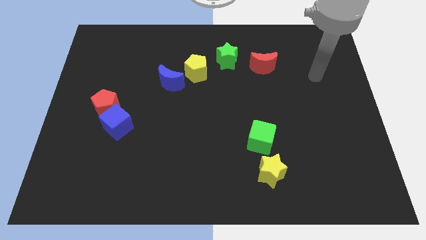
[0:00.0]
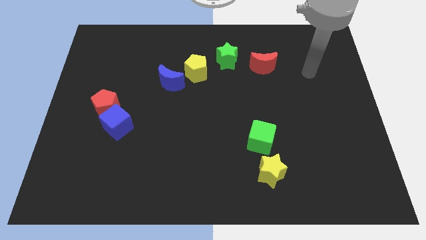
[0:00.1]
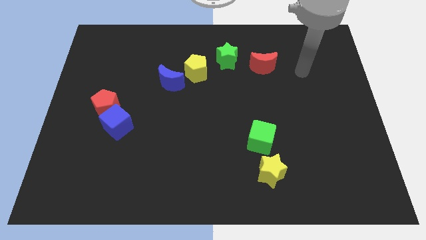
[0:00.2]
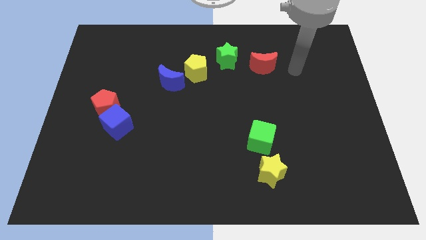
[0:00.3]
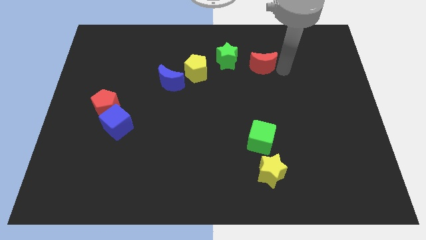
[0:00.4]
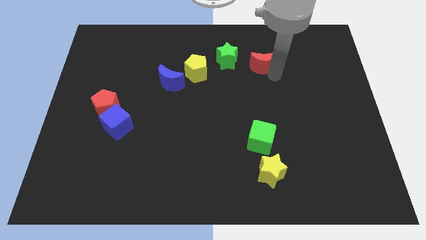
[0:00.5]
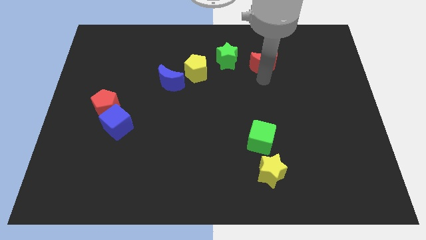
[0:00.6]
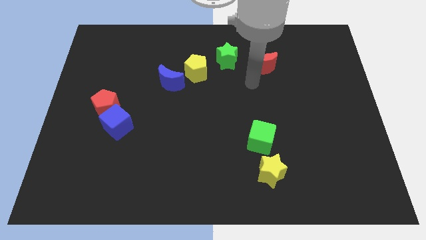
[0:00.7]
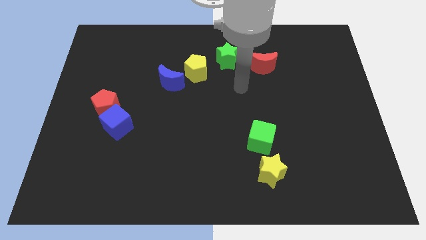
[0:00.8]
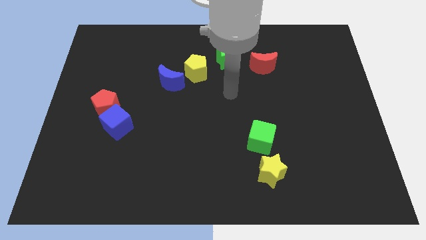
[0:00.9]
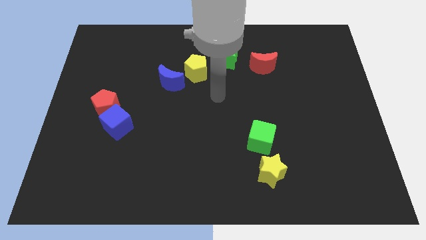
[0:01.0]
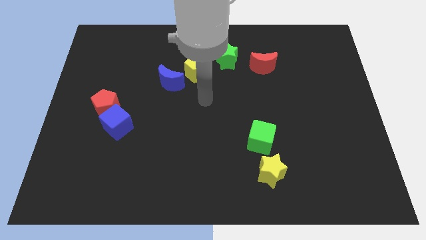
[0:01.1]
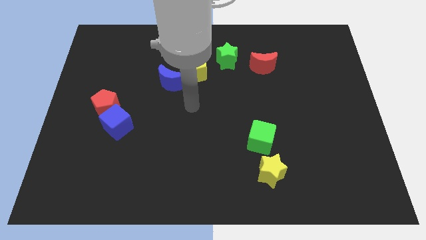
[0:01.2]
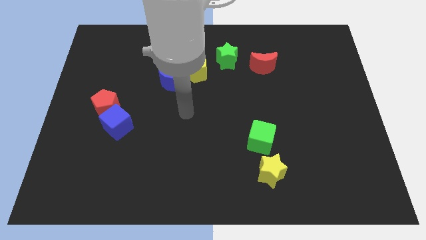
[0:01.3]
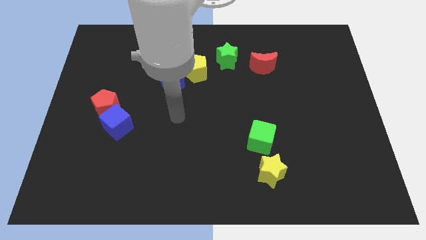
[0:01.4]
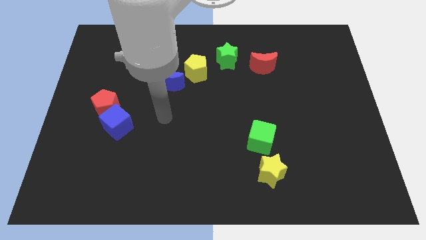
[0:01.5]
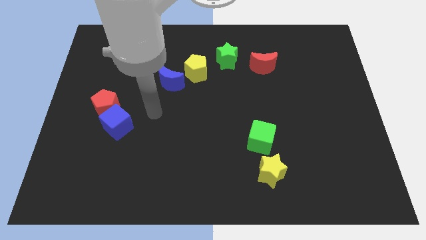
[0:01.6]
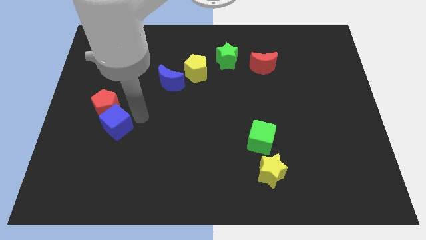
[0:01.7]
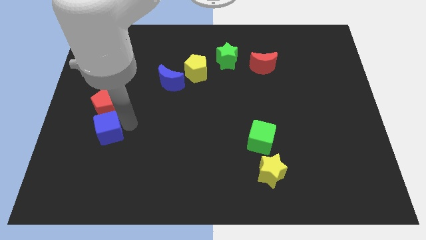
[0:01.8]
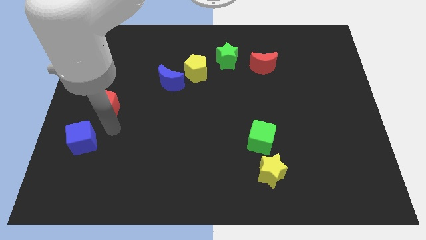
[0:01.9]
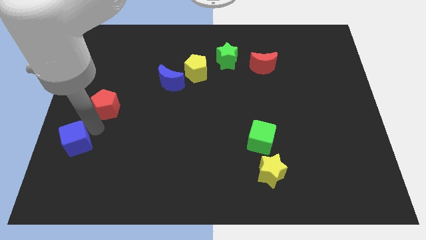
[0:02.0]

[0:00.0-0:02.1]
separate the red pentagon from the blue cube

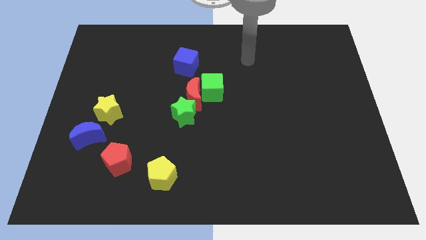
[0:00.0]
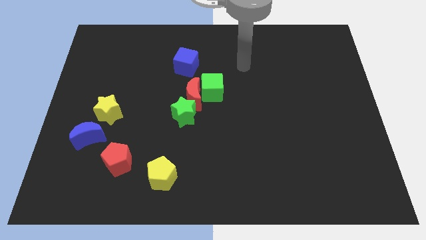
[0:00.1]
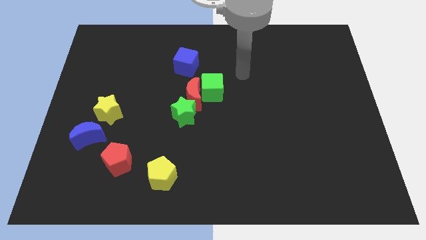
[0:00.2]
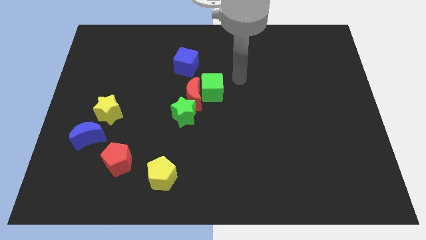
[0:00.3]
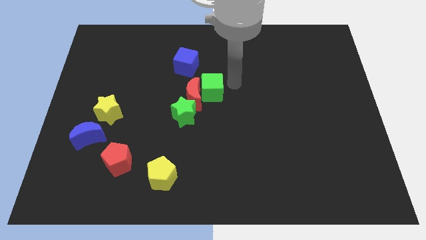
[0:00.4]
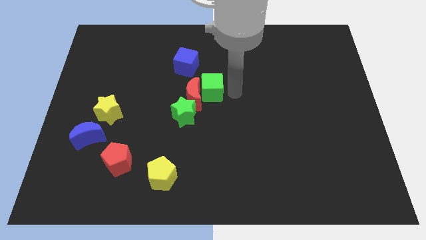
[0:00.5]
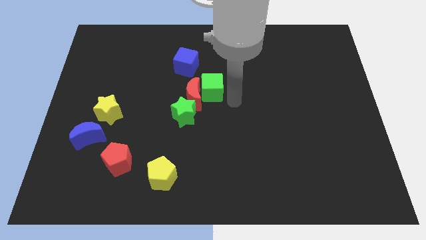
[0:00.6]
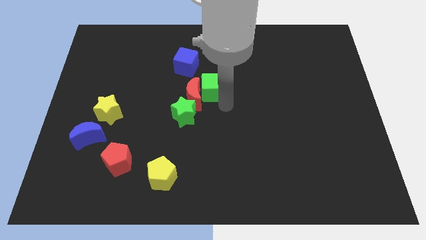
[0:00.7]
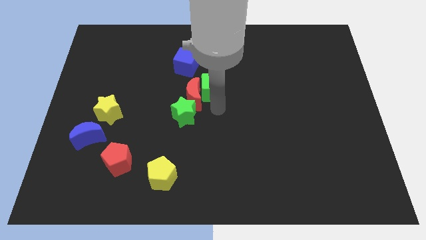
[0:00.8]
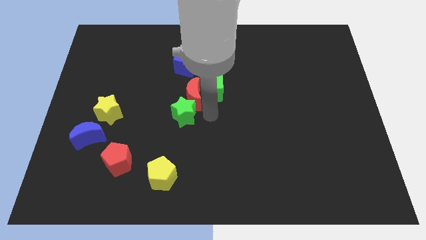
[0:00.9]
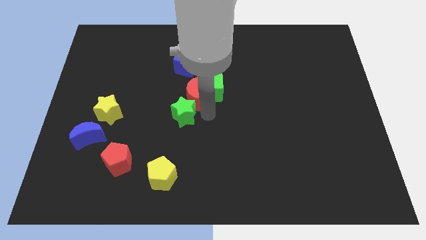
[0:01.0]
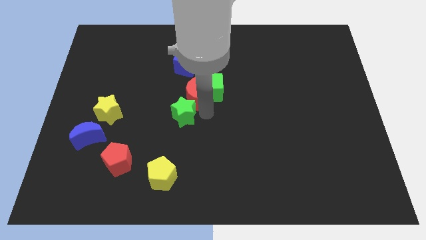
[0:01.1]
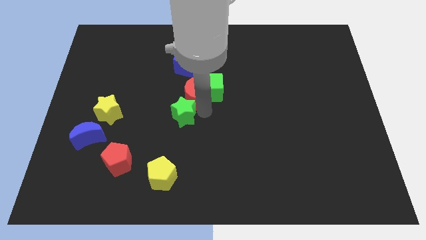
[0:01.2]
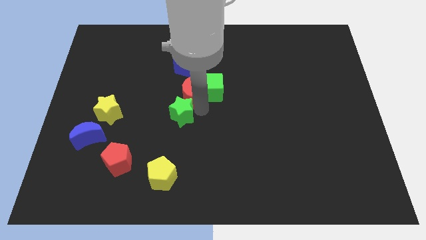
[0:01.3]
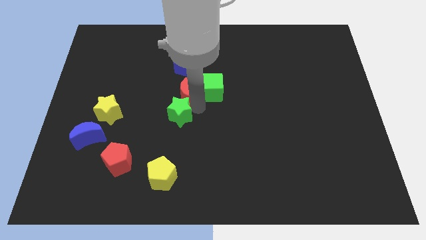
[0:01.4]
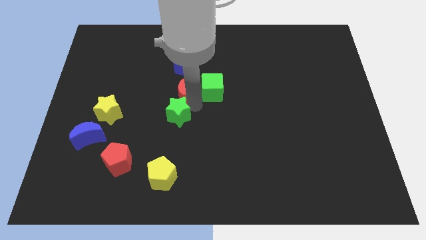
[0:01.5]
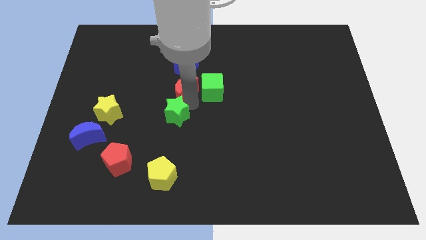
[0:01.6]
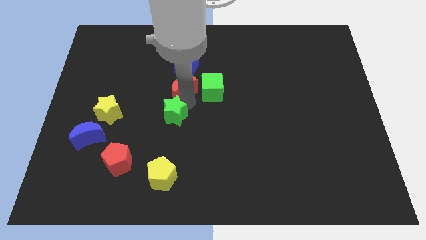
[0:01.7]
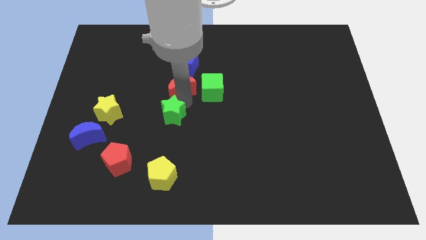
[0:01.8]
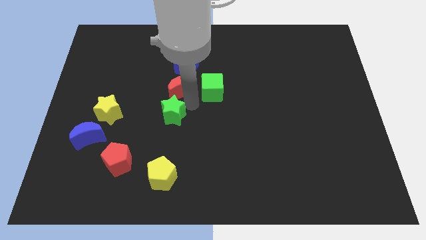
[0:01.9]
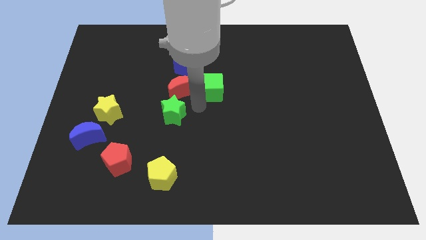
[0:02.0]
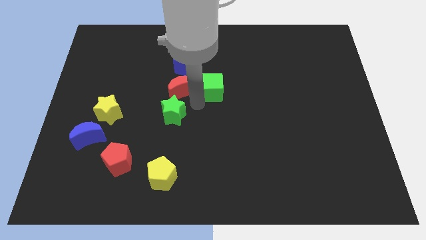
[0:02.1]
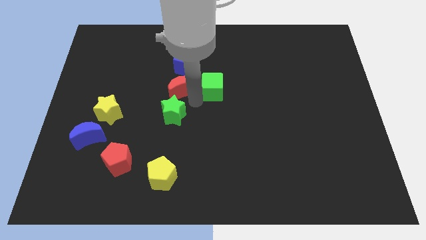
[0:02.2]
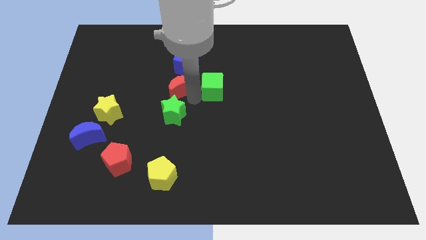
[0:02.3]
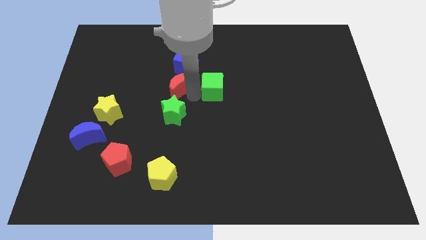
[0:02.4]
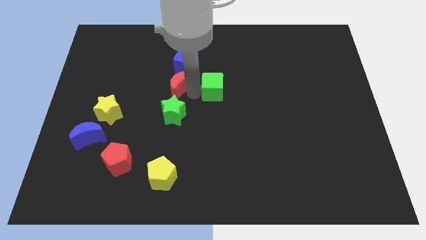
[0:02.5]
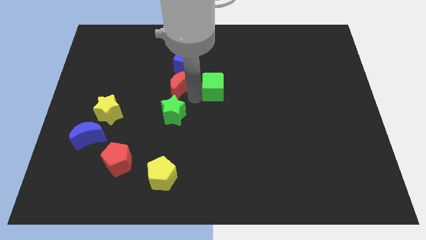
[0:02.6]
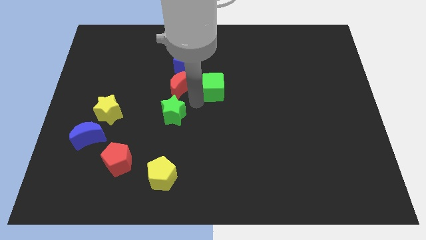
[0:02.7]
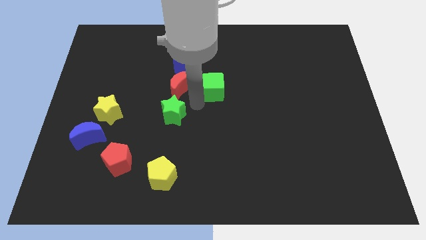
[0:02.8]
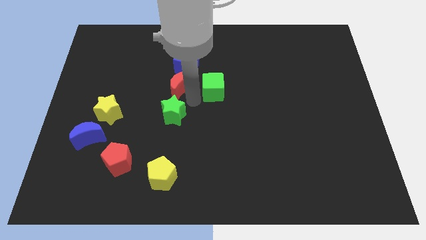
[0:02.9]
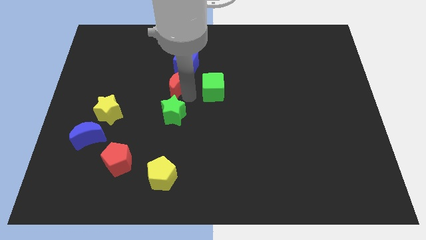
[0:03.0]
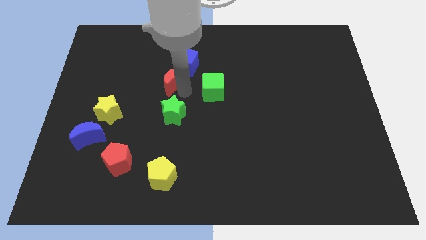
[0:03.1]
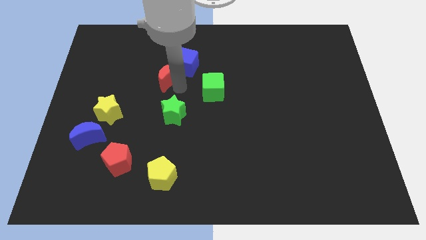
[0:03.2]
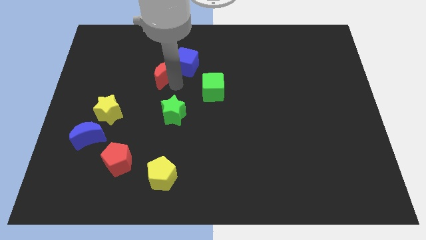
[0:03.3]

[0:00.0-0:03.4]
pull the red moon apart from the green cube and green star

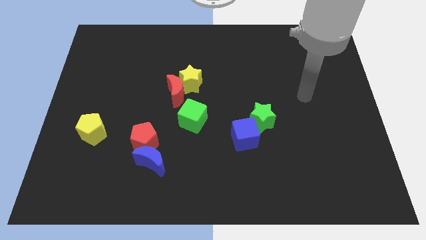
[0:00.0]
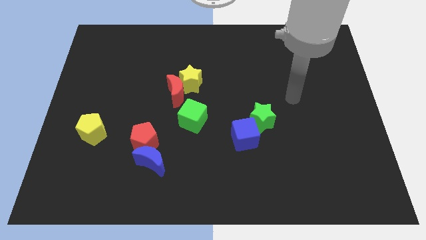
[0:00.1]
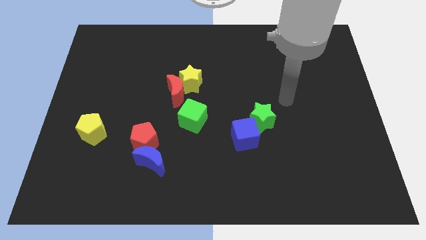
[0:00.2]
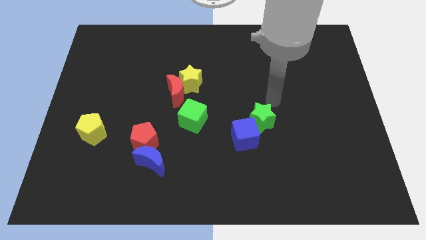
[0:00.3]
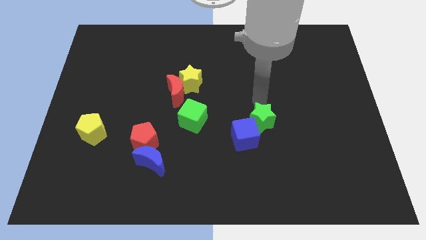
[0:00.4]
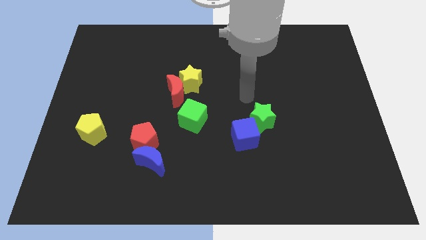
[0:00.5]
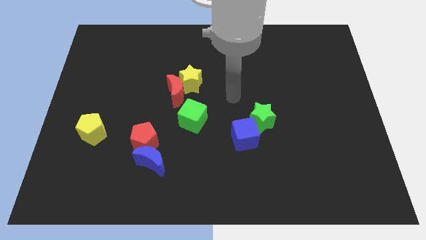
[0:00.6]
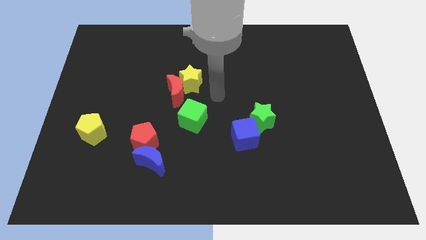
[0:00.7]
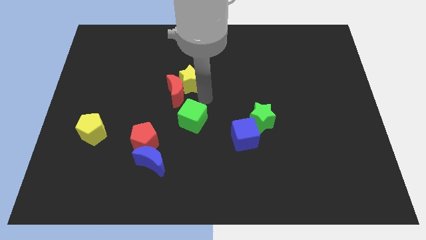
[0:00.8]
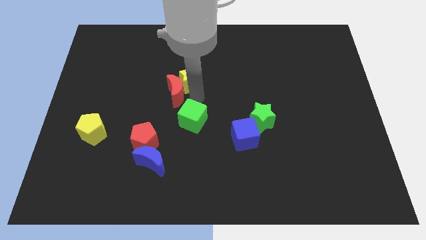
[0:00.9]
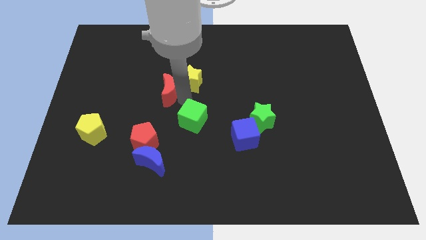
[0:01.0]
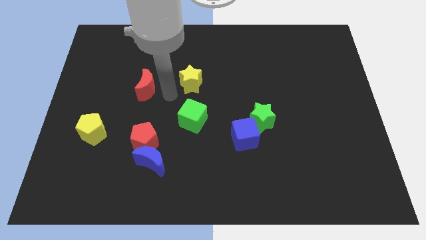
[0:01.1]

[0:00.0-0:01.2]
pull the yellow star apart from the red moon

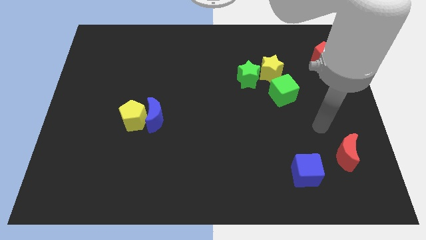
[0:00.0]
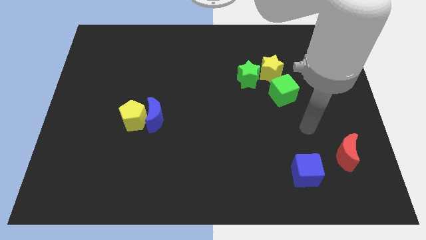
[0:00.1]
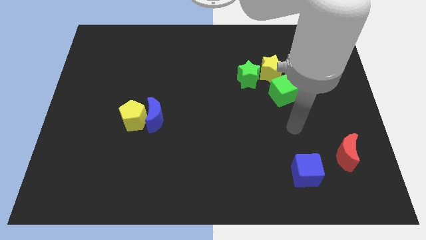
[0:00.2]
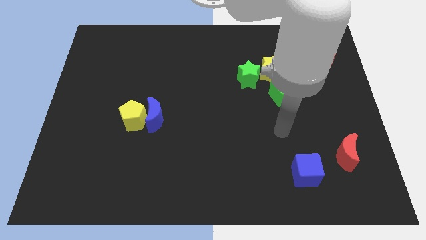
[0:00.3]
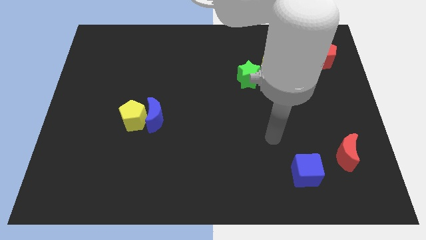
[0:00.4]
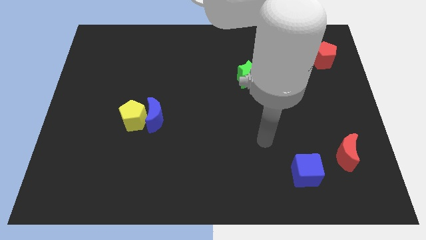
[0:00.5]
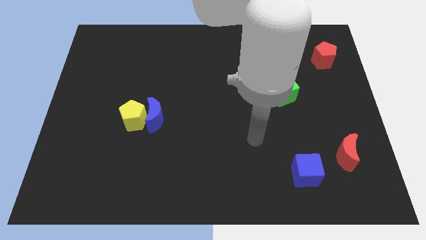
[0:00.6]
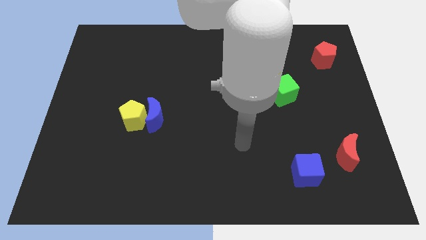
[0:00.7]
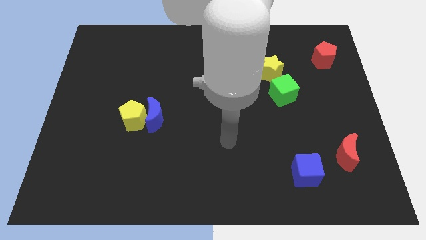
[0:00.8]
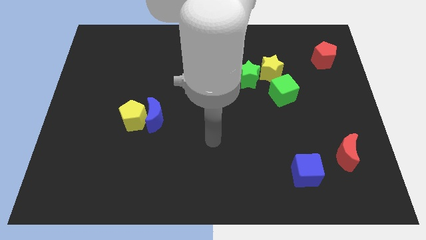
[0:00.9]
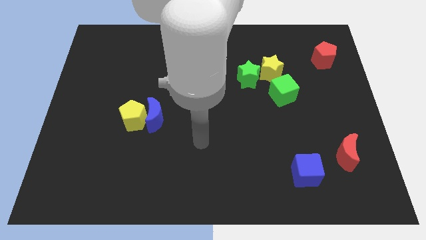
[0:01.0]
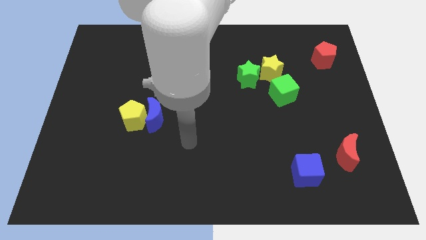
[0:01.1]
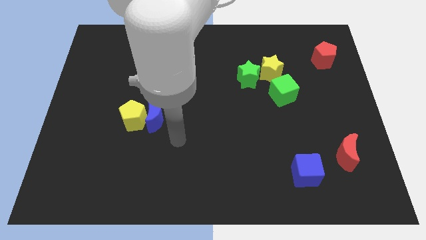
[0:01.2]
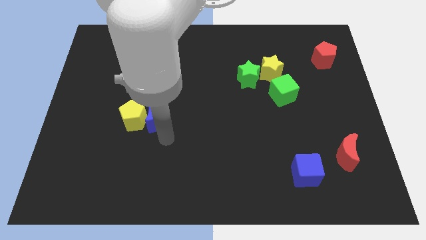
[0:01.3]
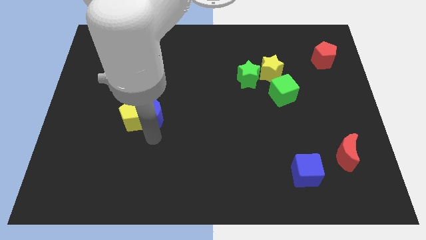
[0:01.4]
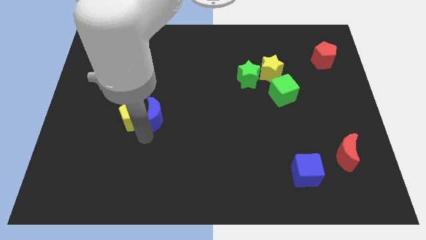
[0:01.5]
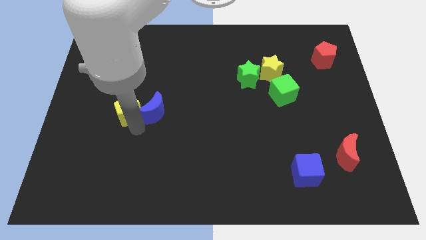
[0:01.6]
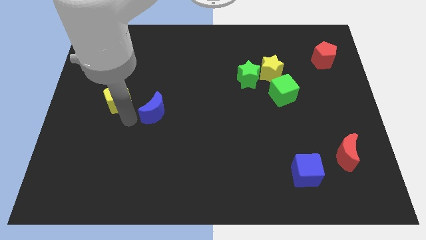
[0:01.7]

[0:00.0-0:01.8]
pull the blue moon apart from the yellow pentagon

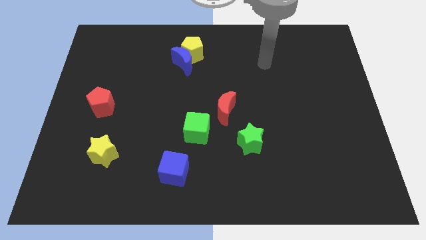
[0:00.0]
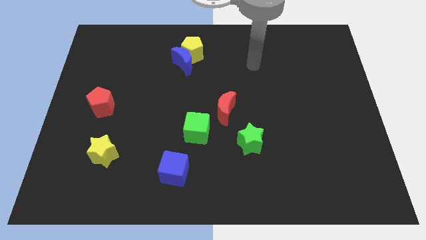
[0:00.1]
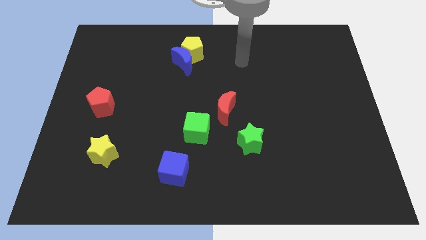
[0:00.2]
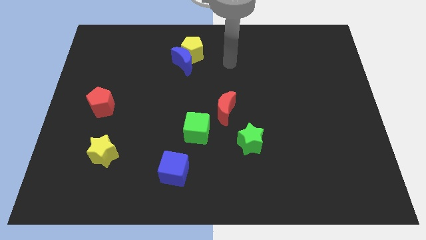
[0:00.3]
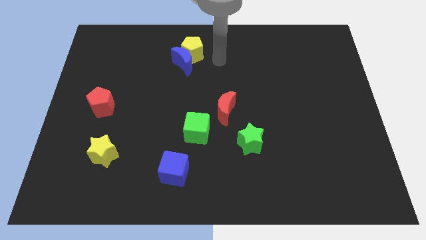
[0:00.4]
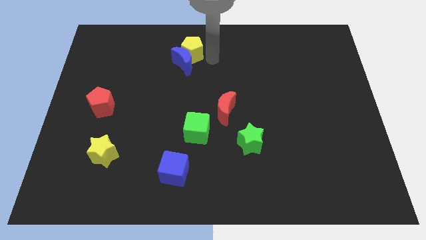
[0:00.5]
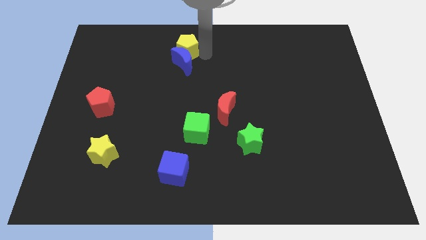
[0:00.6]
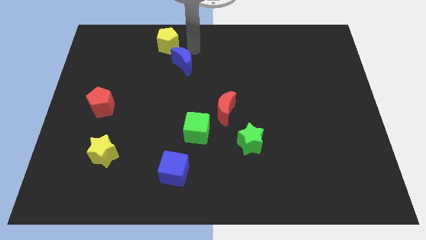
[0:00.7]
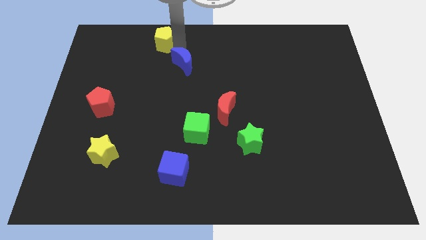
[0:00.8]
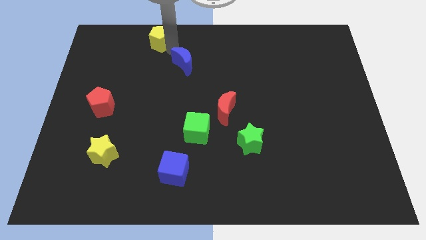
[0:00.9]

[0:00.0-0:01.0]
move the blue moon away from the yellow pentagon
